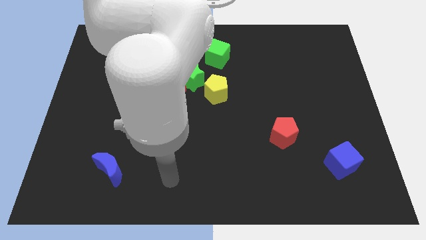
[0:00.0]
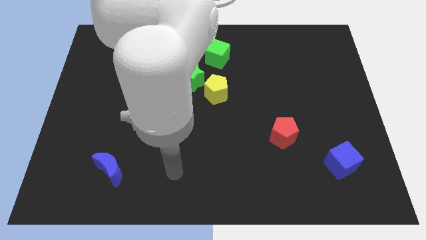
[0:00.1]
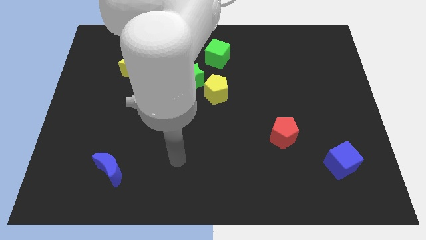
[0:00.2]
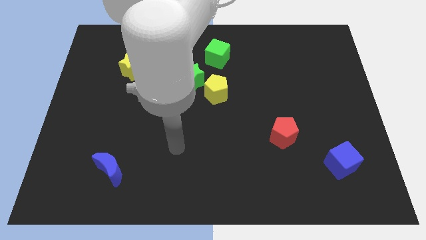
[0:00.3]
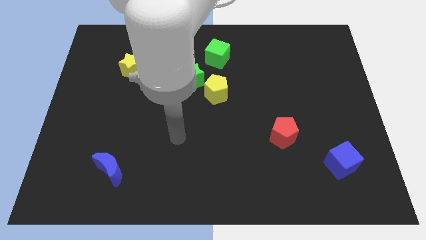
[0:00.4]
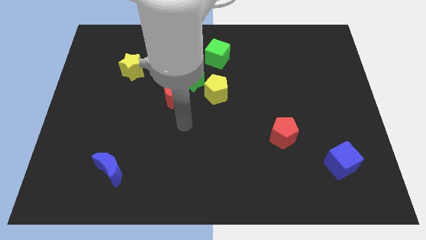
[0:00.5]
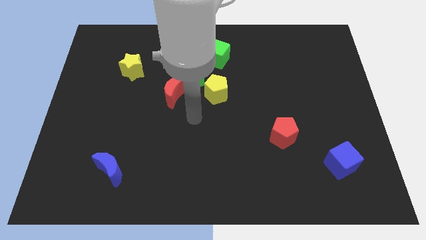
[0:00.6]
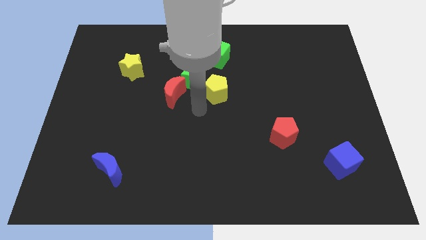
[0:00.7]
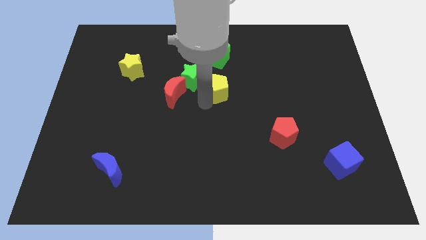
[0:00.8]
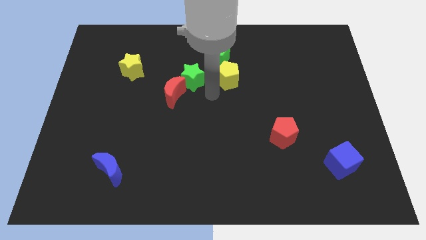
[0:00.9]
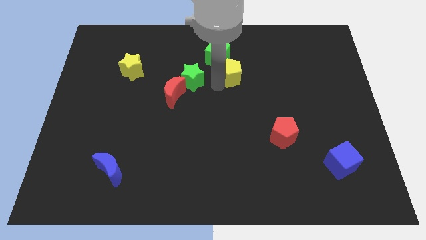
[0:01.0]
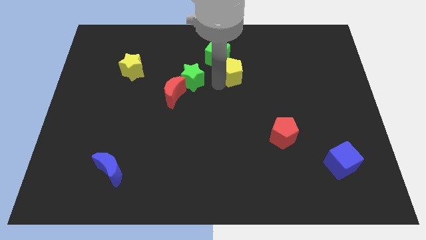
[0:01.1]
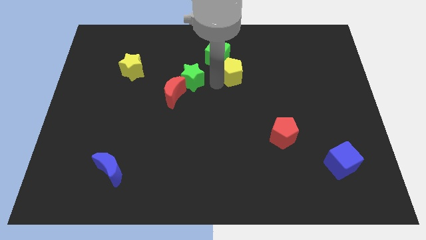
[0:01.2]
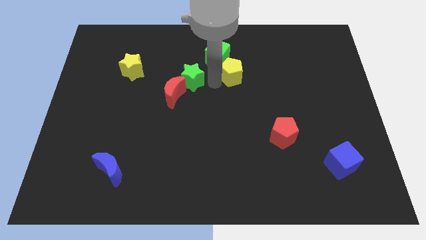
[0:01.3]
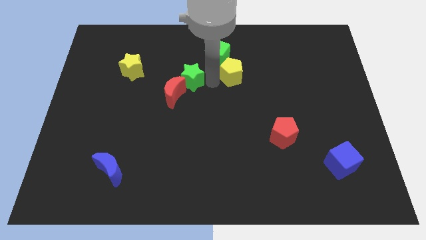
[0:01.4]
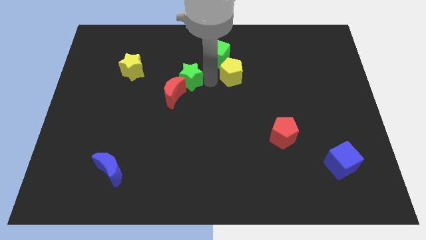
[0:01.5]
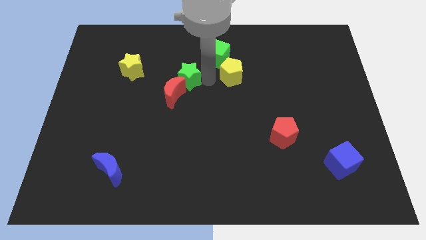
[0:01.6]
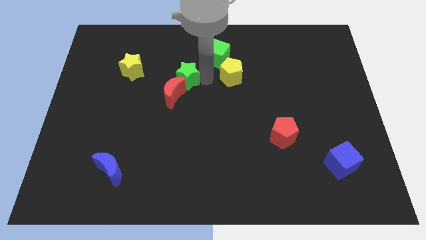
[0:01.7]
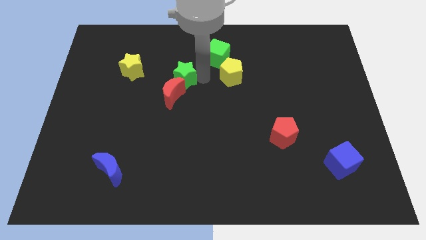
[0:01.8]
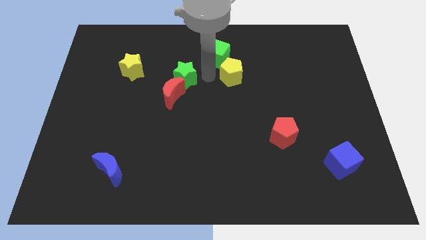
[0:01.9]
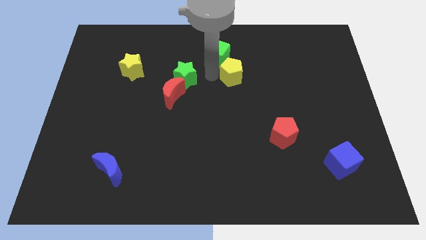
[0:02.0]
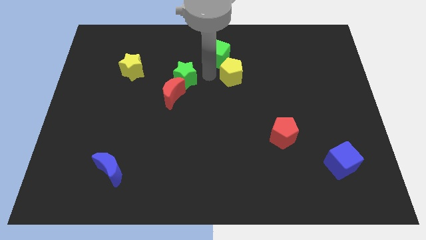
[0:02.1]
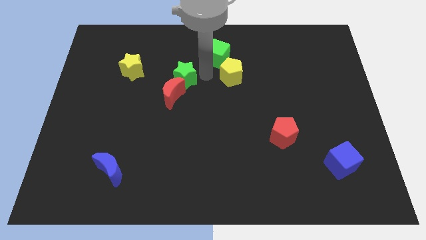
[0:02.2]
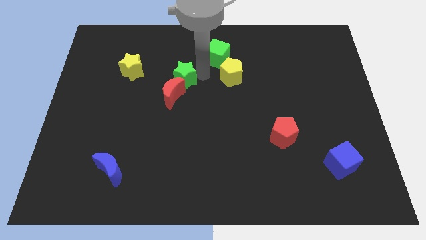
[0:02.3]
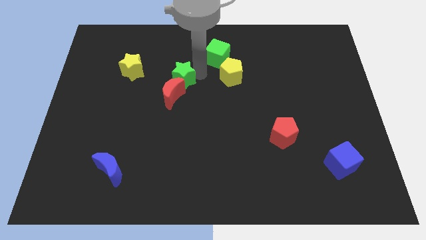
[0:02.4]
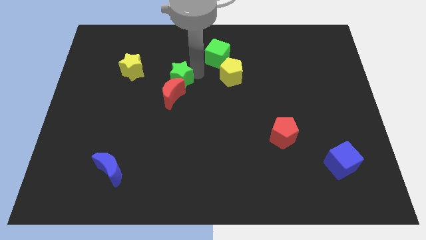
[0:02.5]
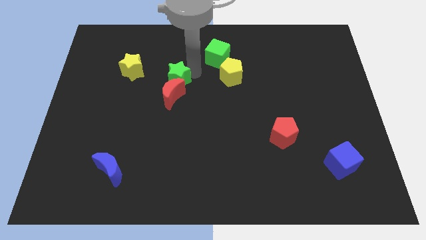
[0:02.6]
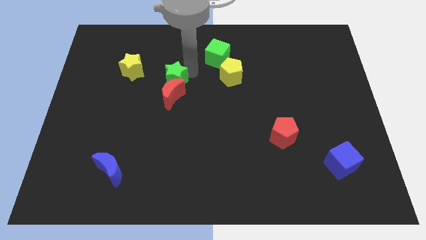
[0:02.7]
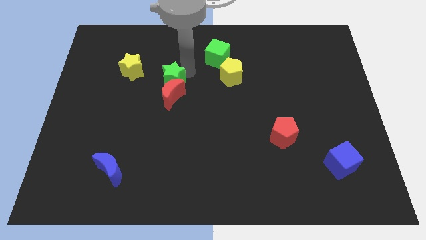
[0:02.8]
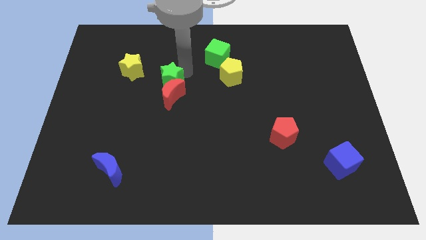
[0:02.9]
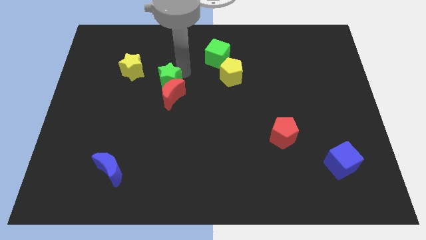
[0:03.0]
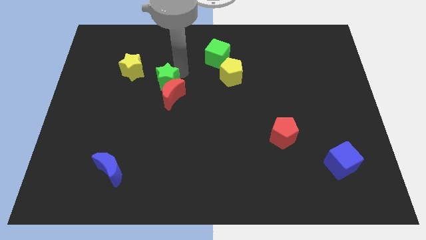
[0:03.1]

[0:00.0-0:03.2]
move the green star away from the group of blocks

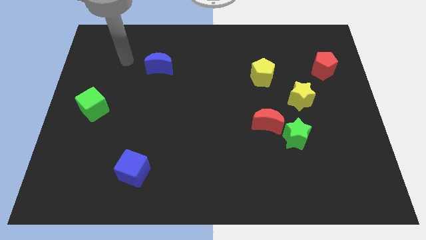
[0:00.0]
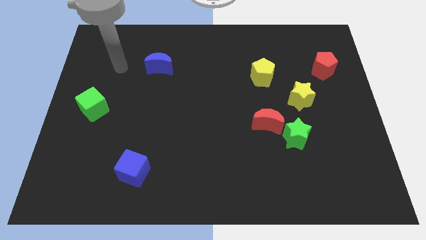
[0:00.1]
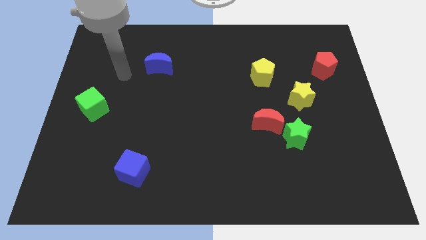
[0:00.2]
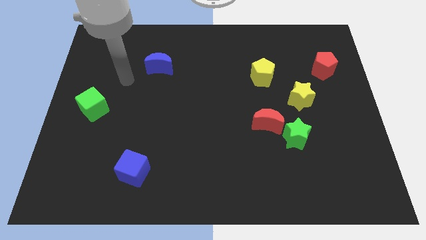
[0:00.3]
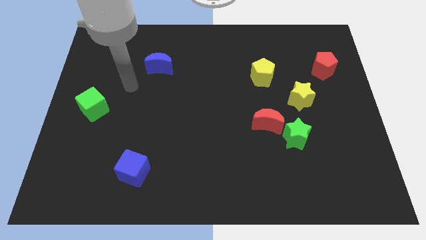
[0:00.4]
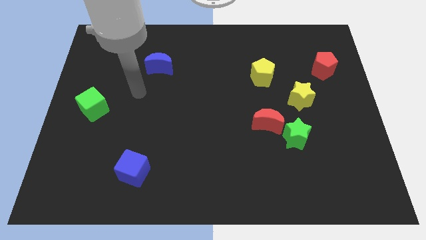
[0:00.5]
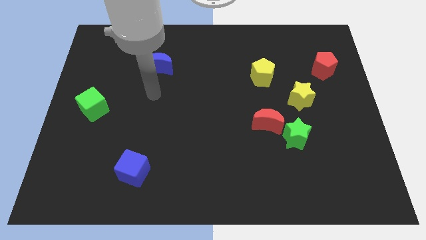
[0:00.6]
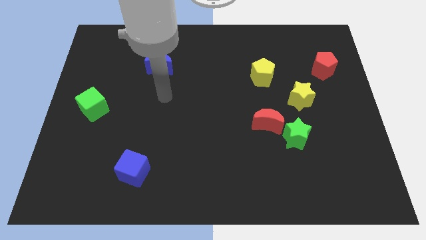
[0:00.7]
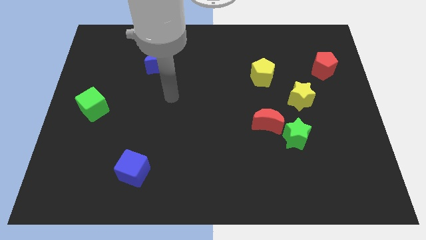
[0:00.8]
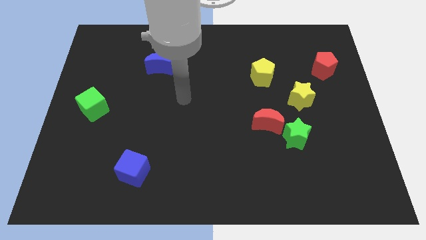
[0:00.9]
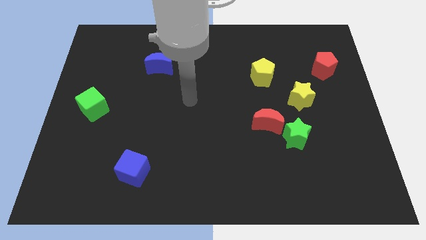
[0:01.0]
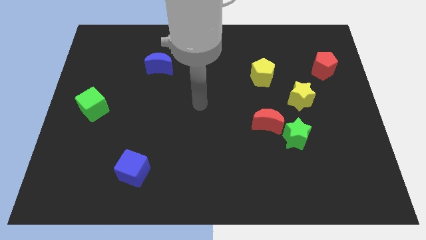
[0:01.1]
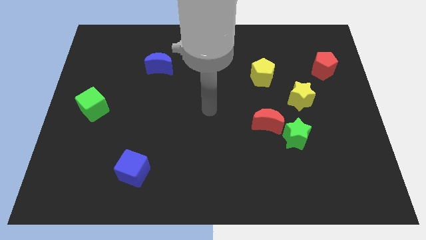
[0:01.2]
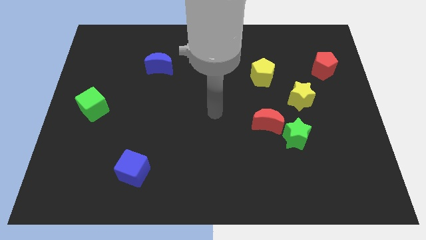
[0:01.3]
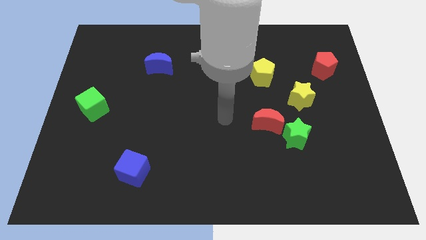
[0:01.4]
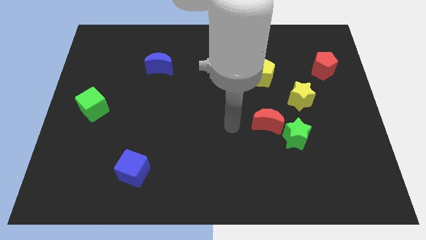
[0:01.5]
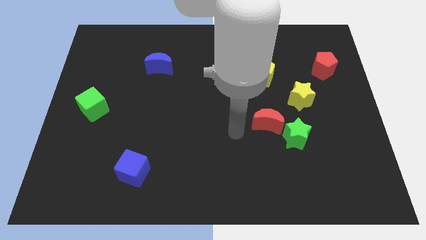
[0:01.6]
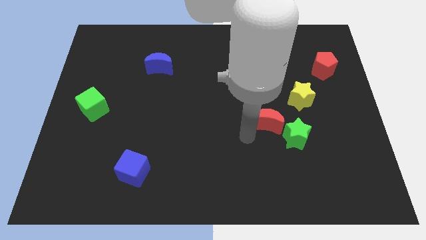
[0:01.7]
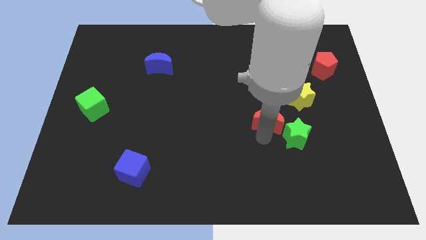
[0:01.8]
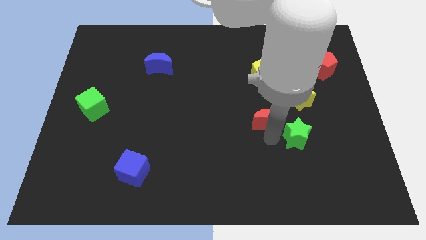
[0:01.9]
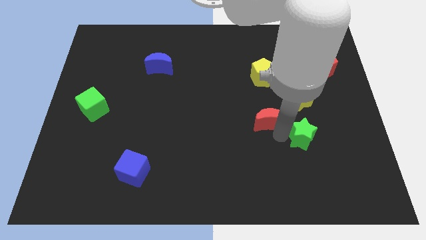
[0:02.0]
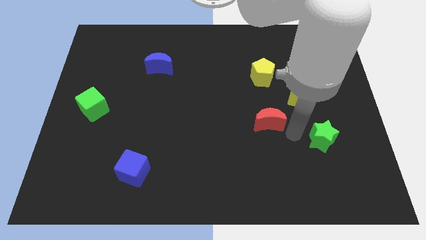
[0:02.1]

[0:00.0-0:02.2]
move the red moon away from the green star

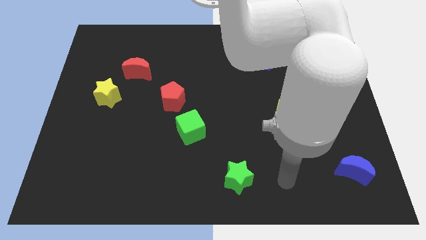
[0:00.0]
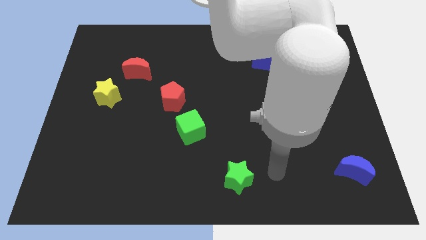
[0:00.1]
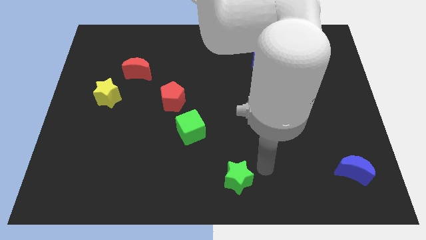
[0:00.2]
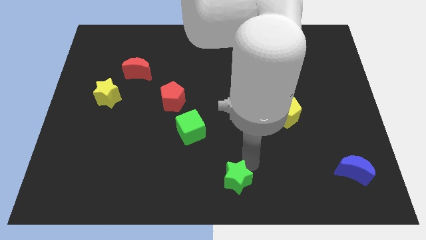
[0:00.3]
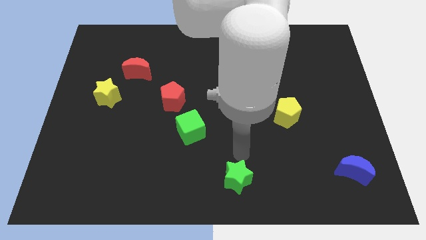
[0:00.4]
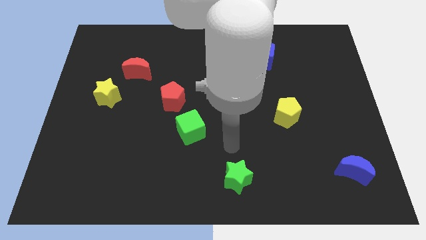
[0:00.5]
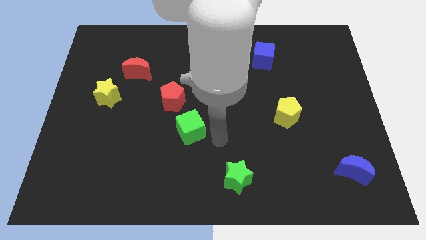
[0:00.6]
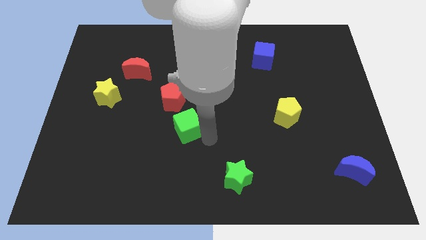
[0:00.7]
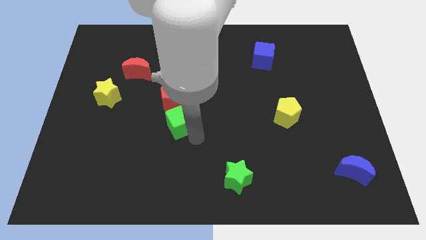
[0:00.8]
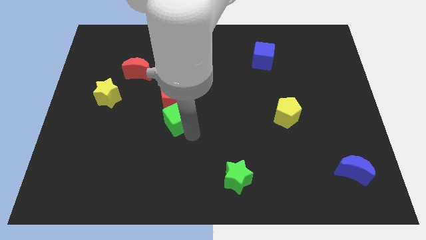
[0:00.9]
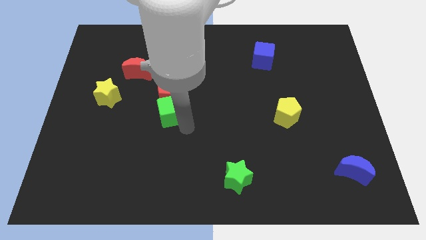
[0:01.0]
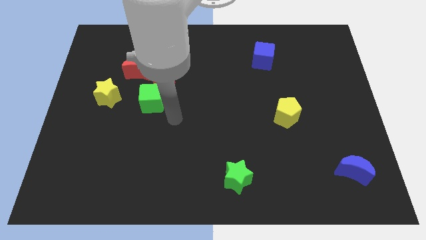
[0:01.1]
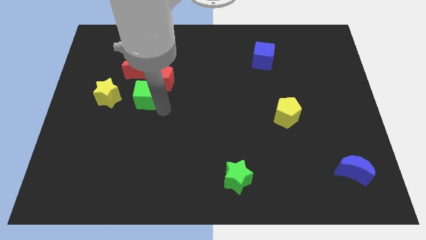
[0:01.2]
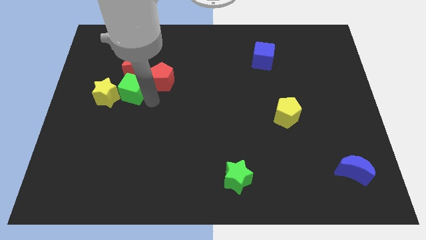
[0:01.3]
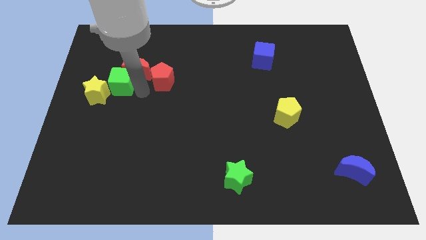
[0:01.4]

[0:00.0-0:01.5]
pull the red pentagon apart from the green cube

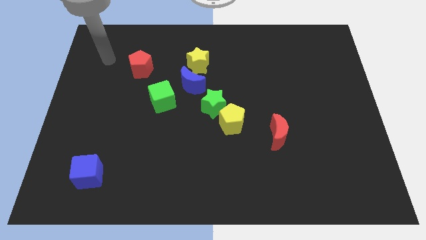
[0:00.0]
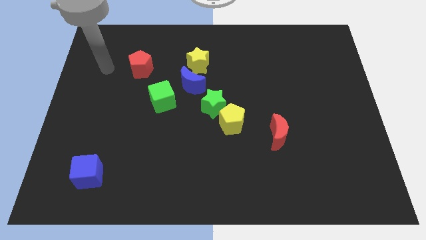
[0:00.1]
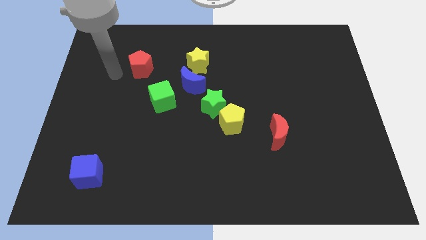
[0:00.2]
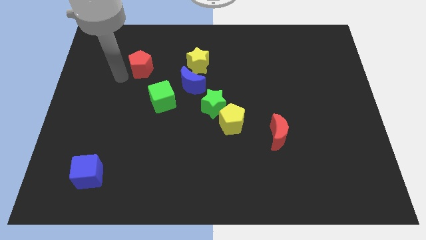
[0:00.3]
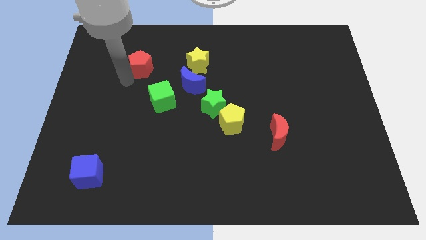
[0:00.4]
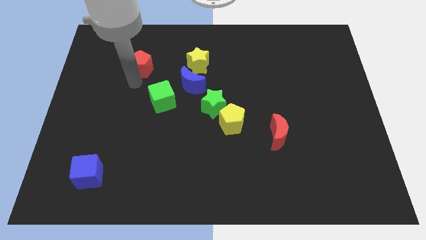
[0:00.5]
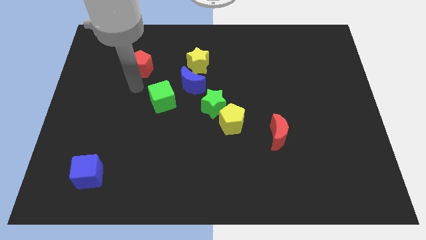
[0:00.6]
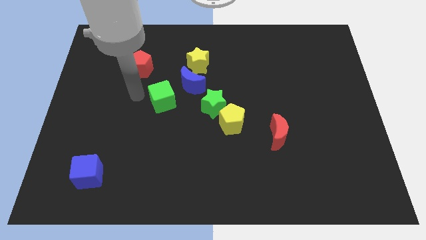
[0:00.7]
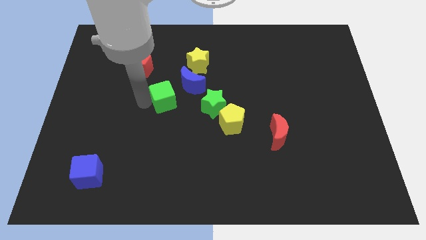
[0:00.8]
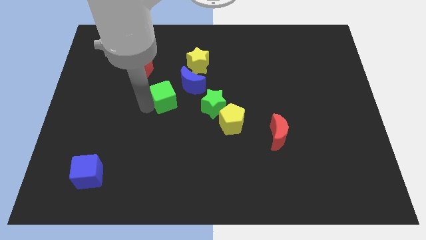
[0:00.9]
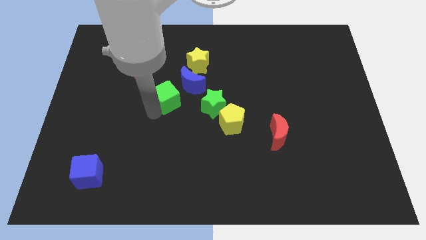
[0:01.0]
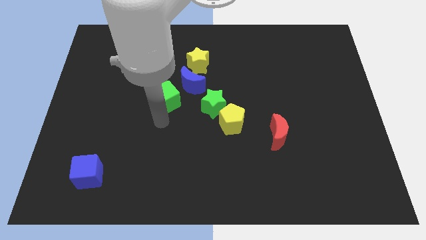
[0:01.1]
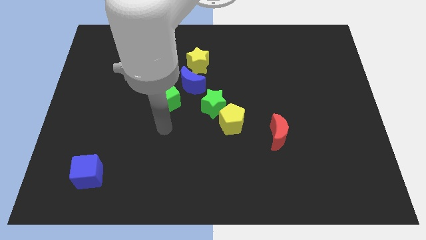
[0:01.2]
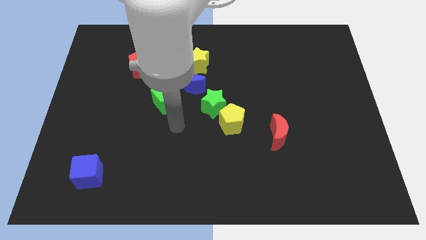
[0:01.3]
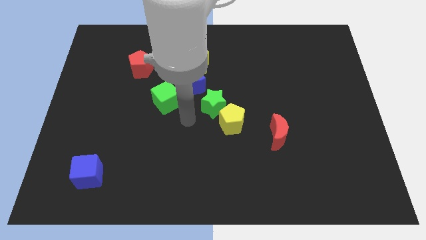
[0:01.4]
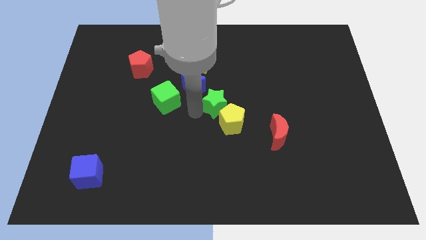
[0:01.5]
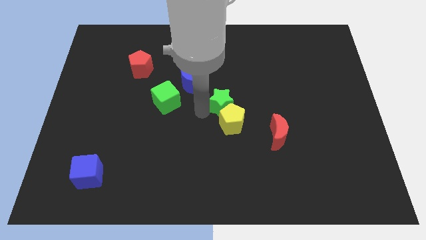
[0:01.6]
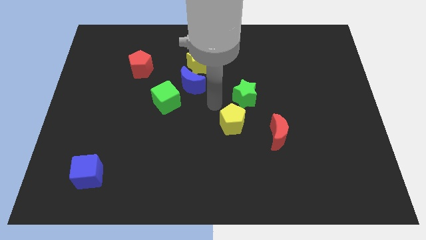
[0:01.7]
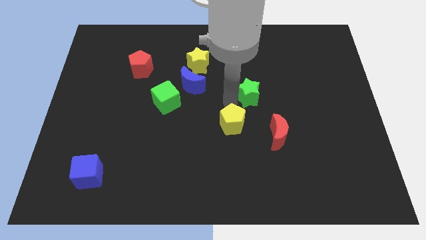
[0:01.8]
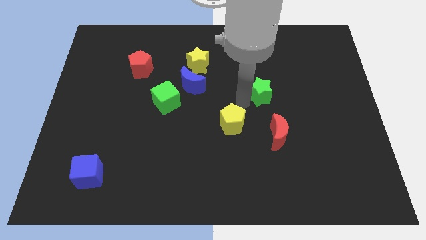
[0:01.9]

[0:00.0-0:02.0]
pull the yellow pentagon apart from the green star

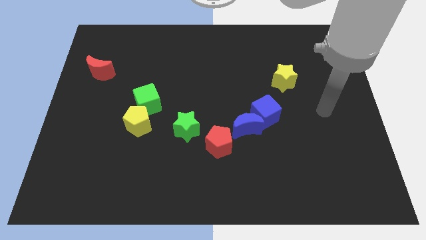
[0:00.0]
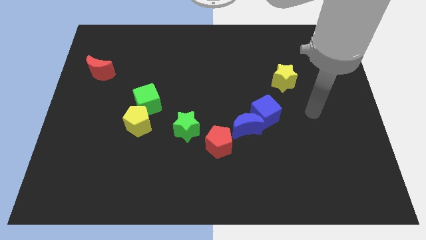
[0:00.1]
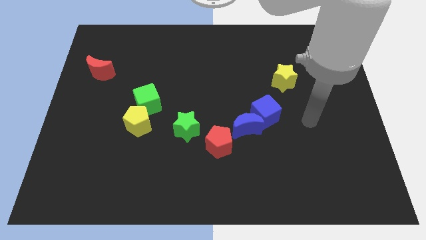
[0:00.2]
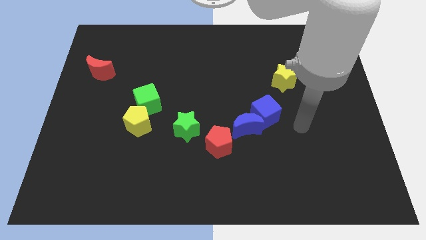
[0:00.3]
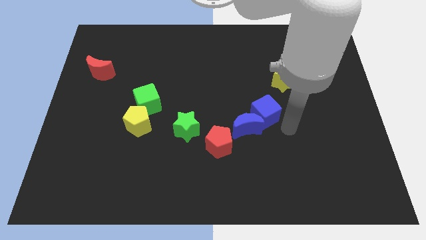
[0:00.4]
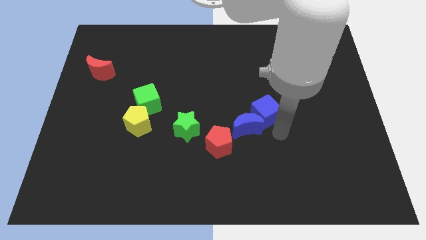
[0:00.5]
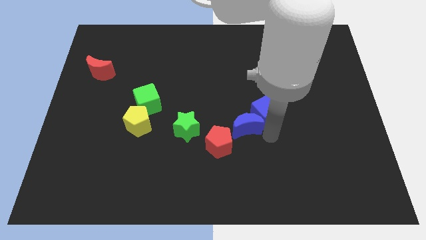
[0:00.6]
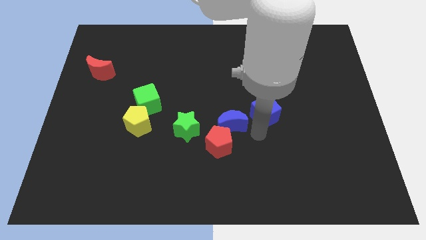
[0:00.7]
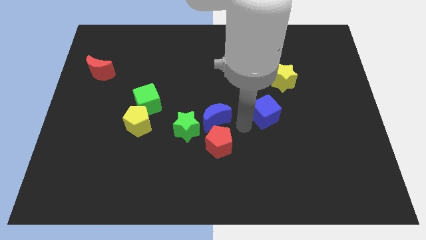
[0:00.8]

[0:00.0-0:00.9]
separate the blue cube from the blue moon
